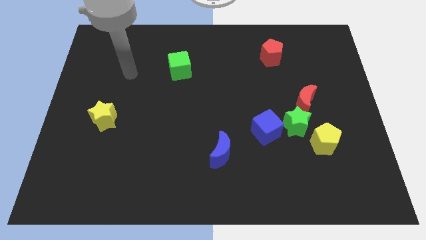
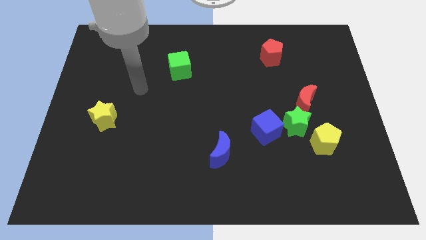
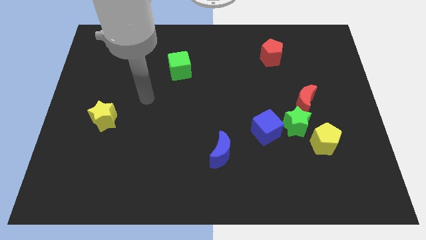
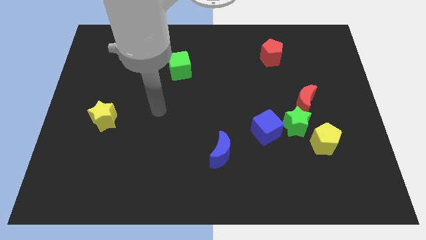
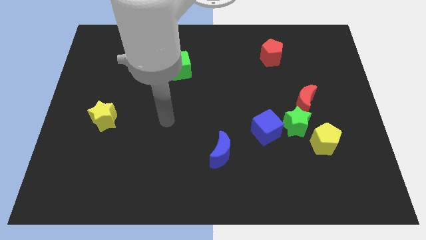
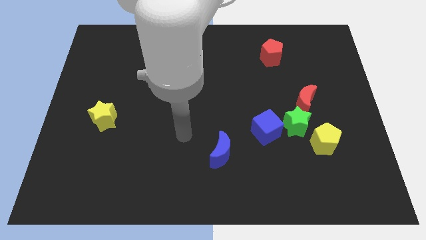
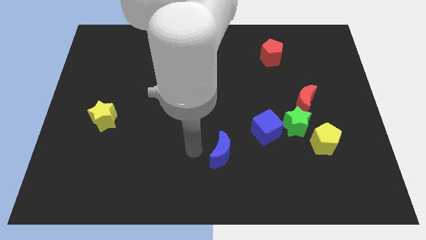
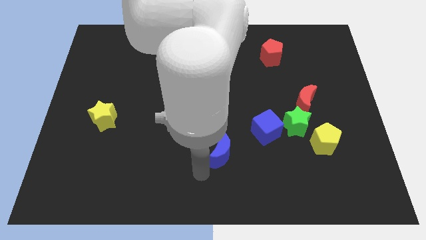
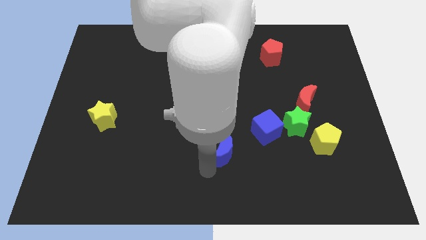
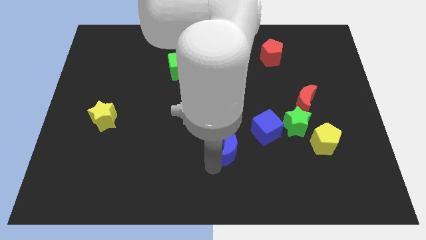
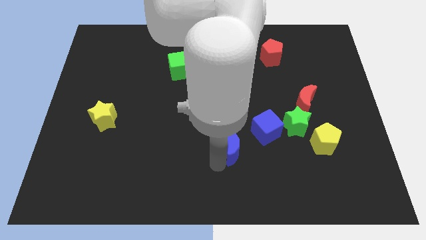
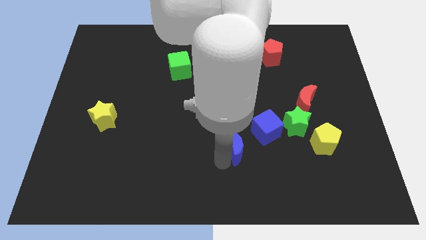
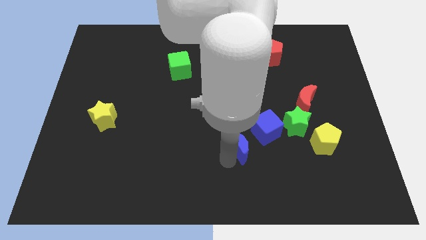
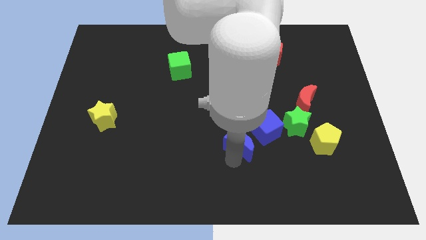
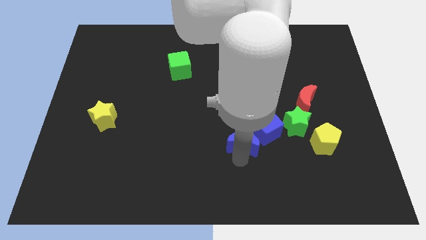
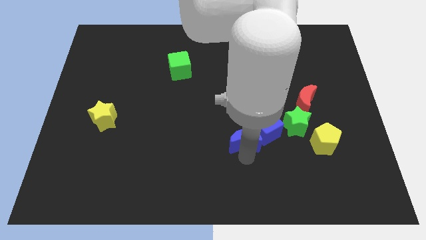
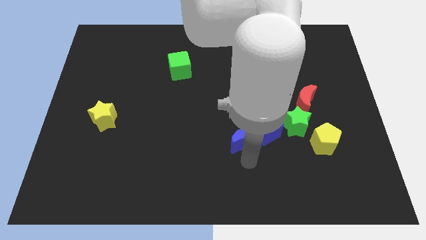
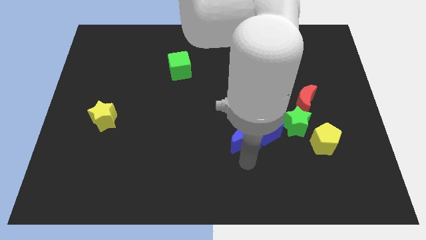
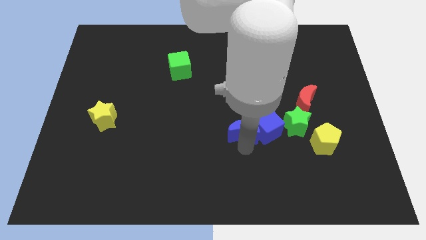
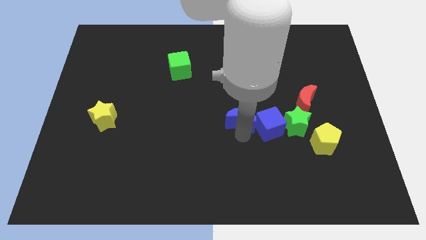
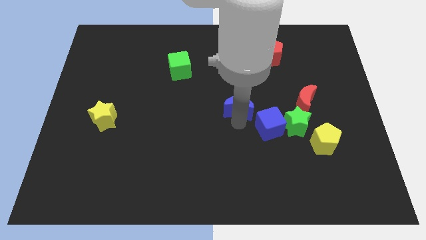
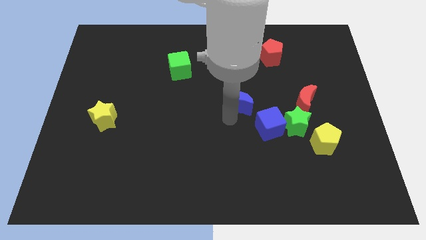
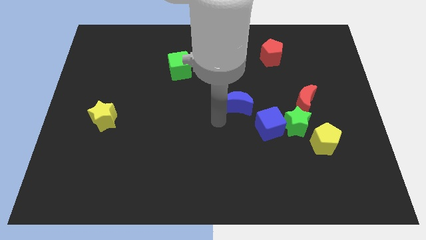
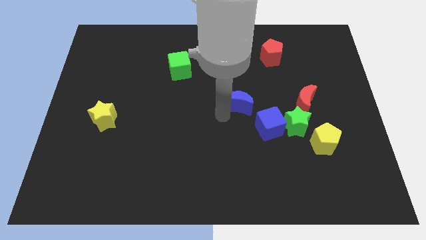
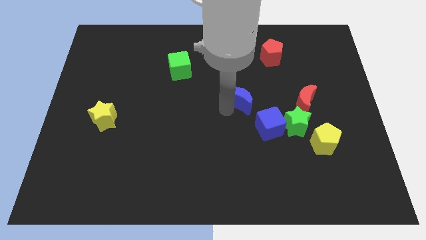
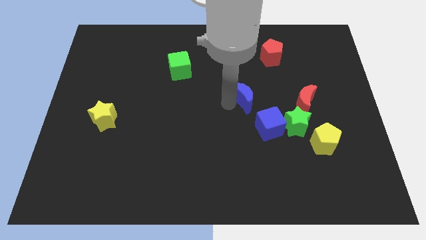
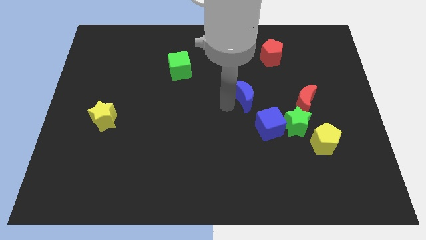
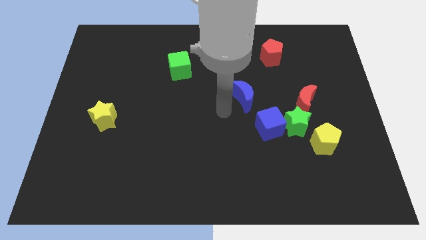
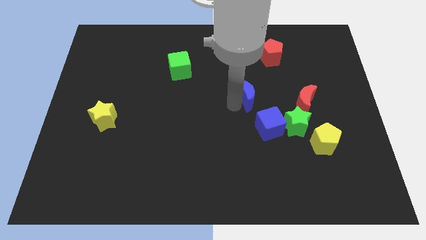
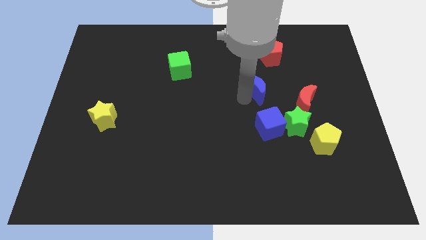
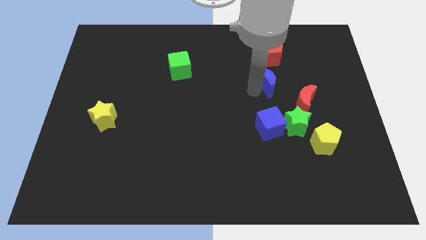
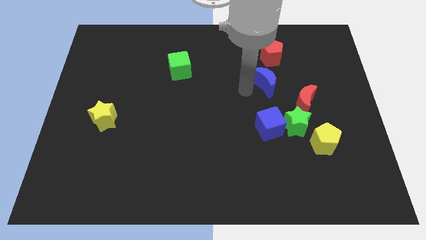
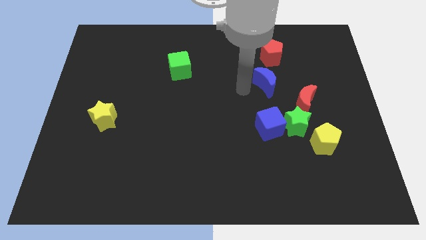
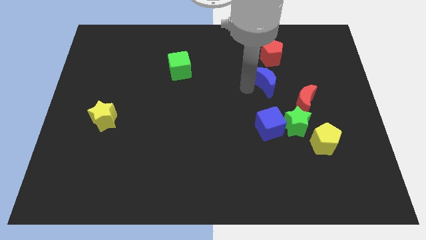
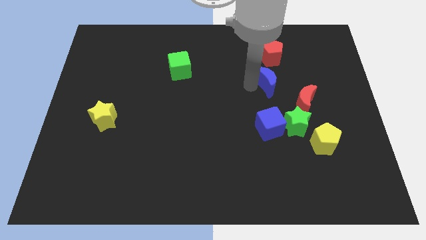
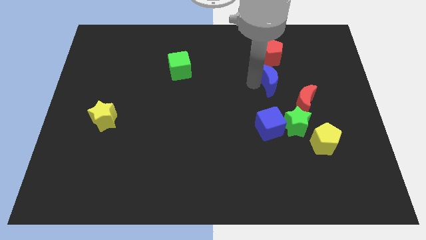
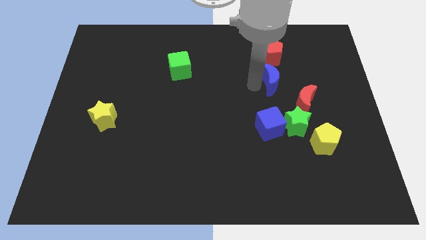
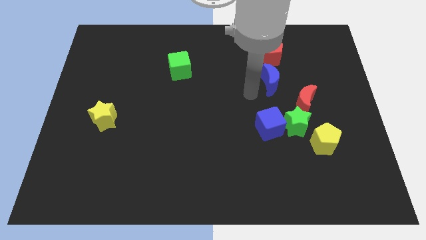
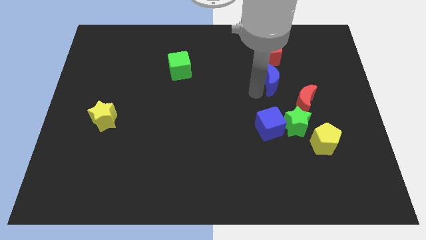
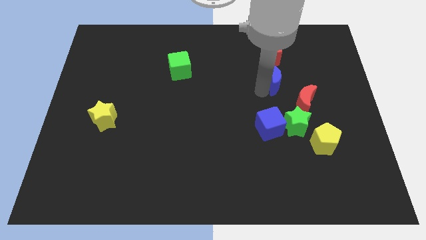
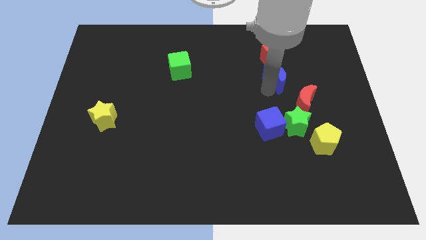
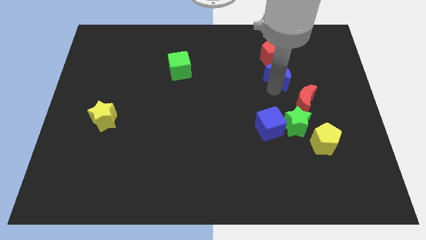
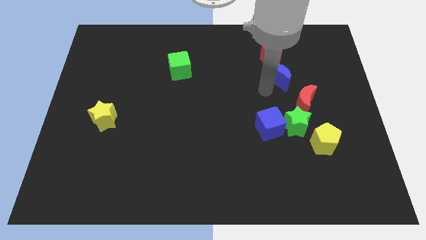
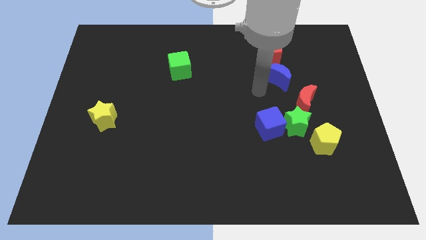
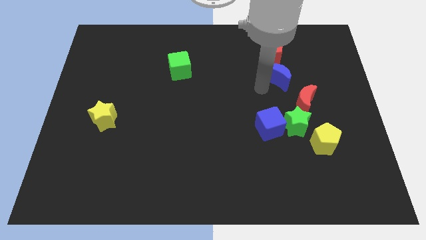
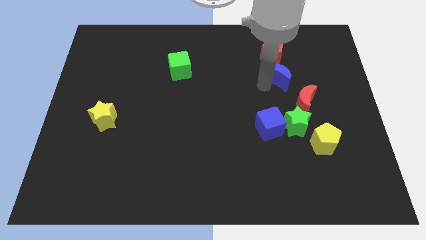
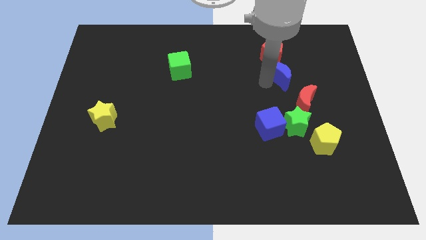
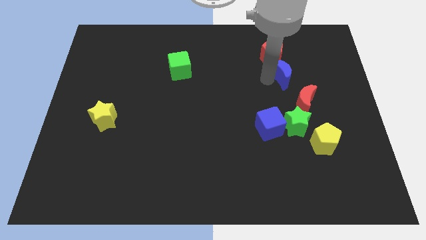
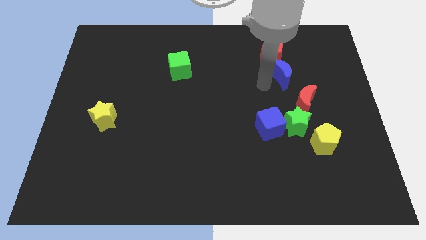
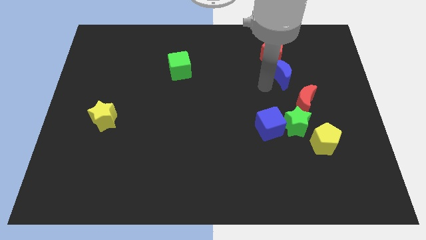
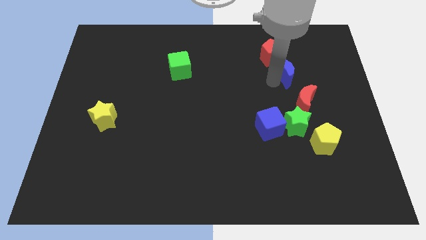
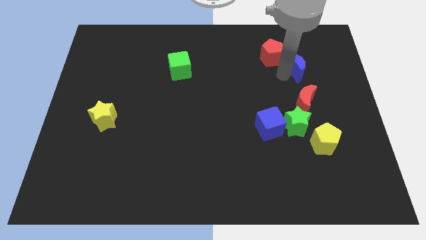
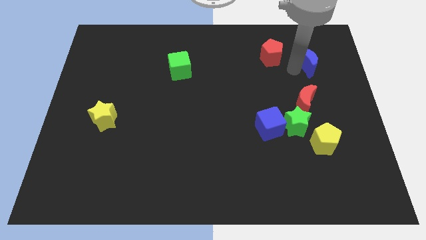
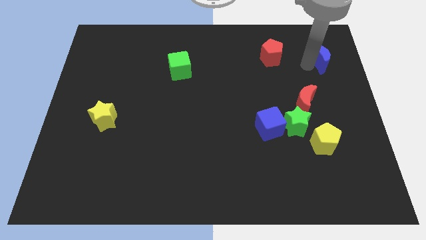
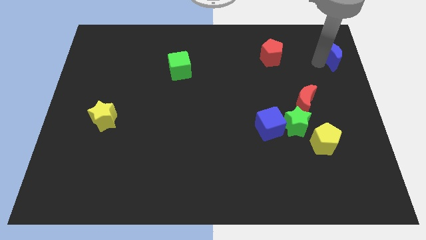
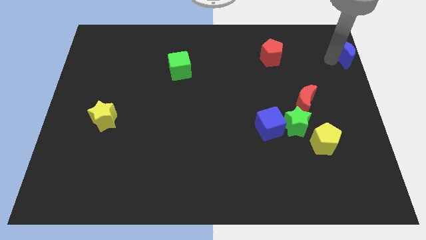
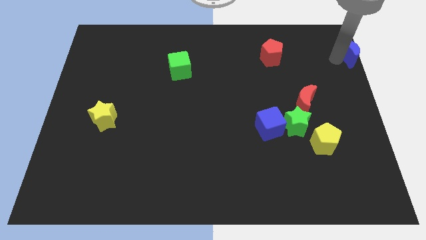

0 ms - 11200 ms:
move the blue moon to the top right corner

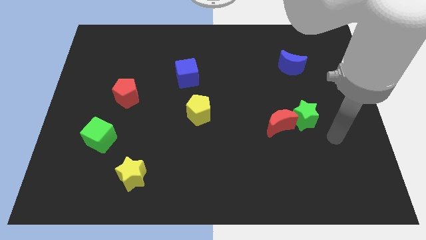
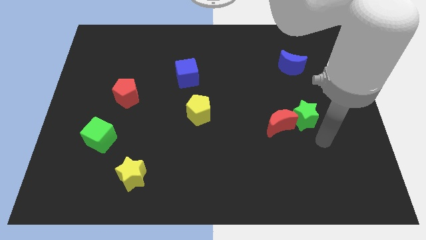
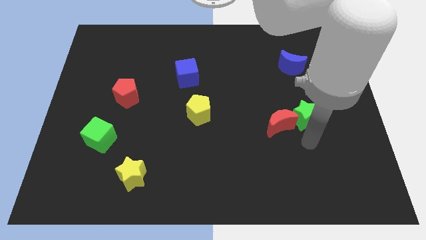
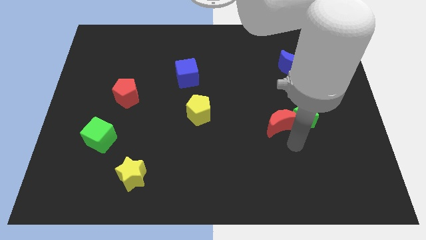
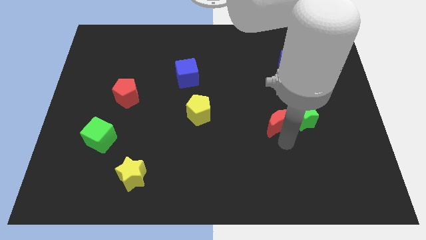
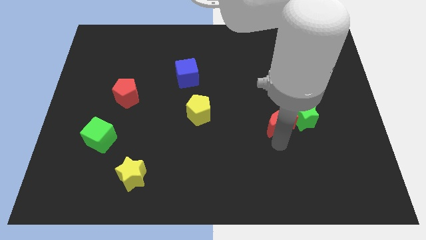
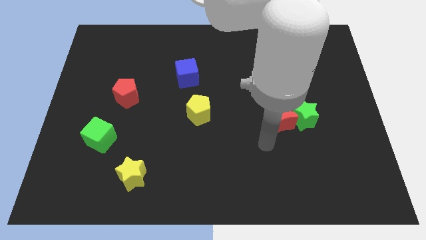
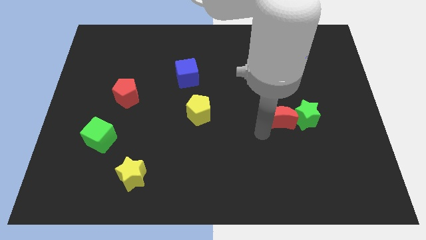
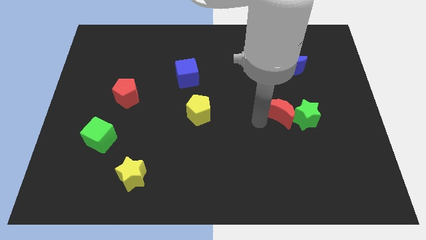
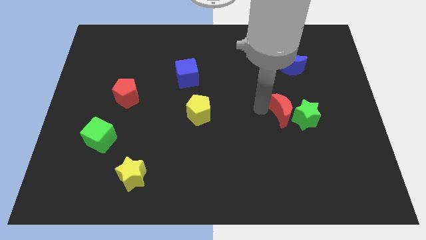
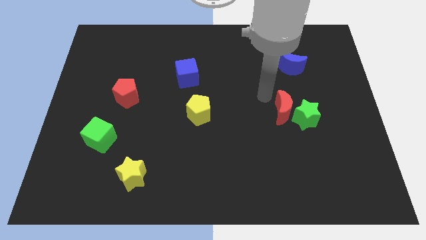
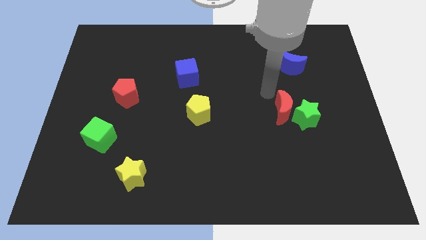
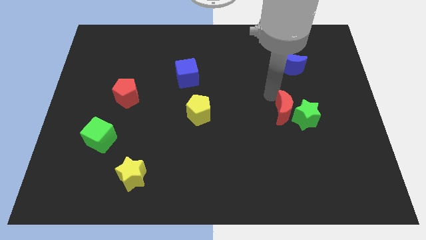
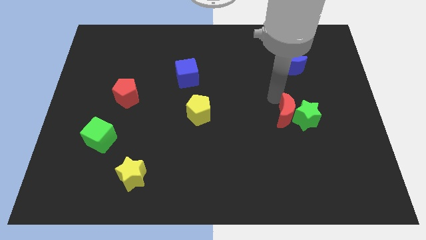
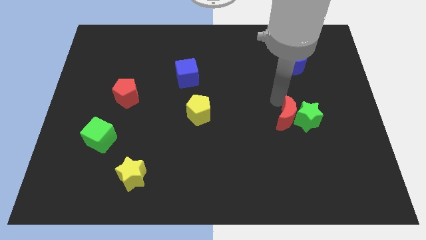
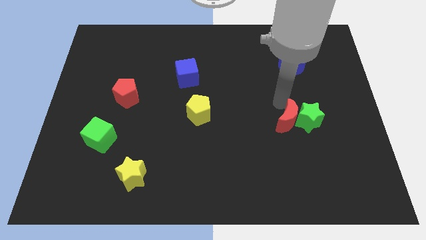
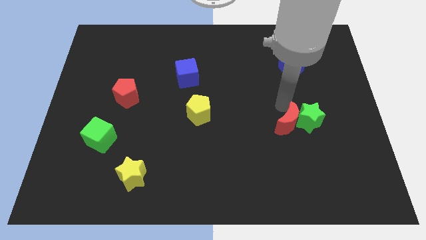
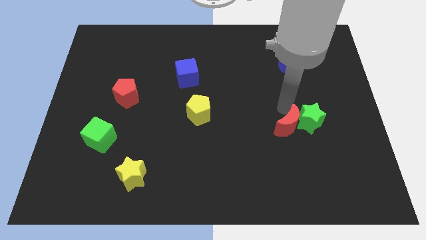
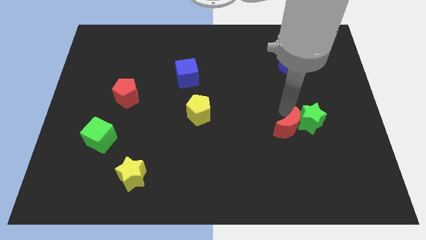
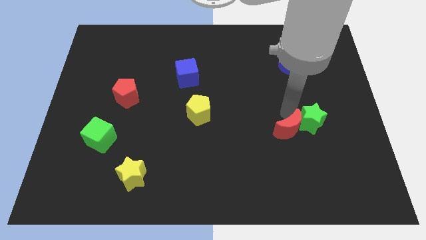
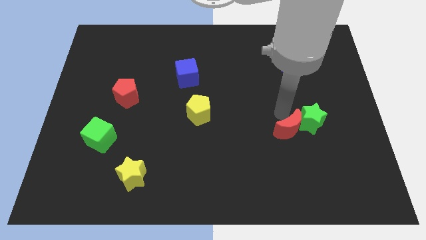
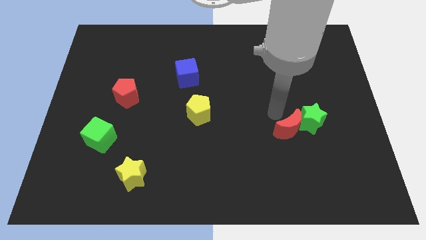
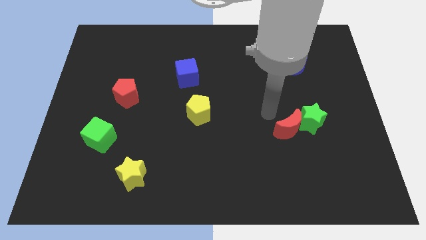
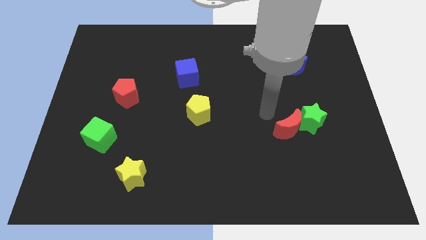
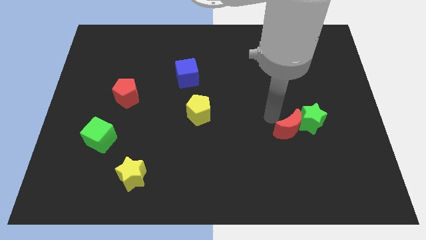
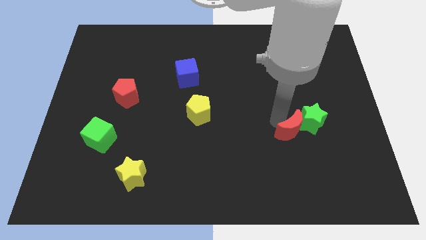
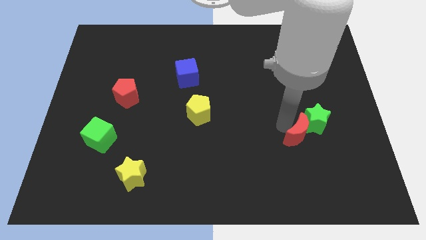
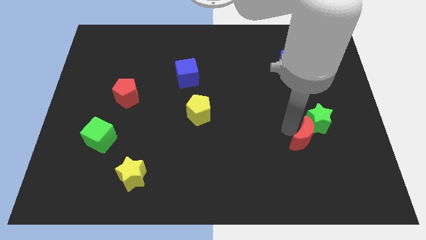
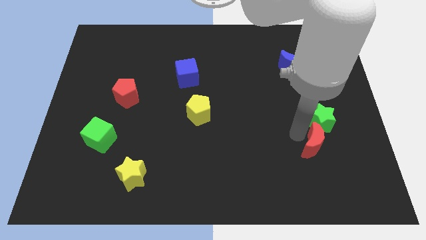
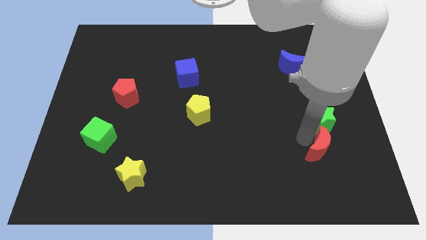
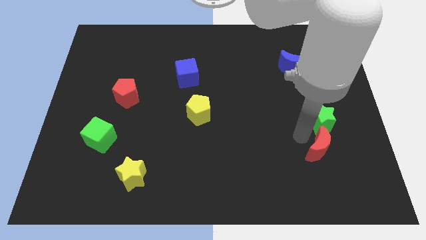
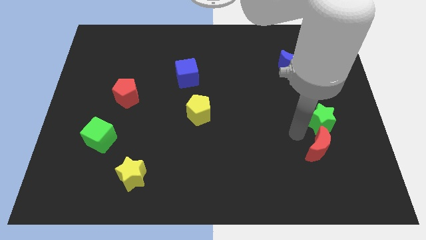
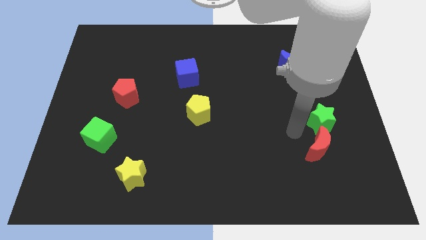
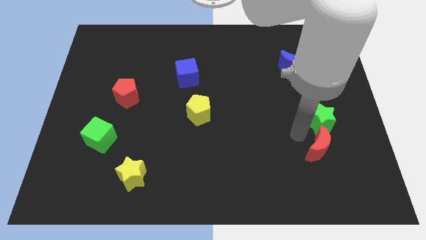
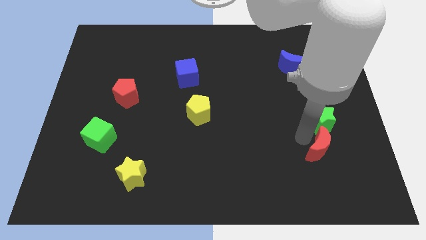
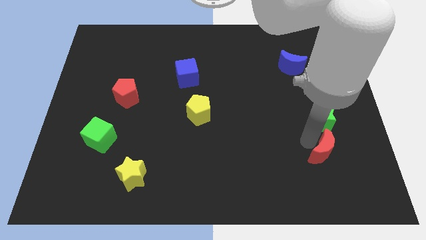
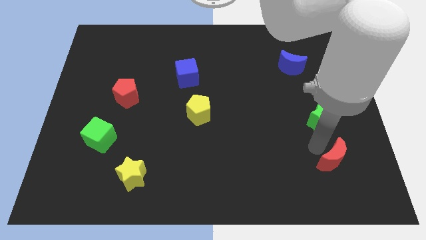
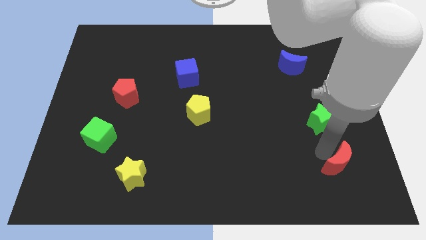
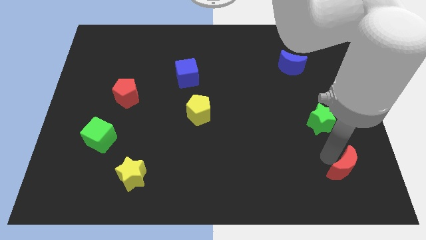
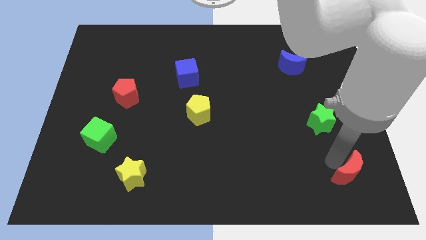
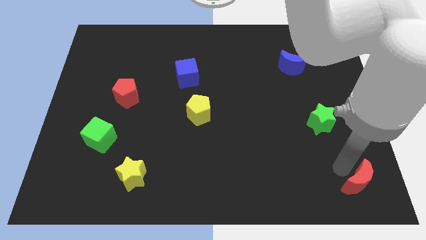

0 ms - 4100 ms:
put the red moon to the bottom right corner
